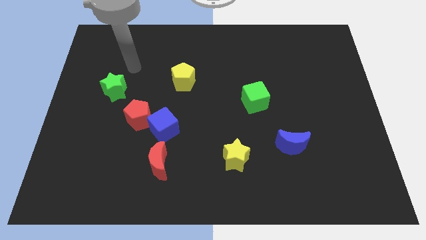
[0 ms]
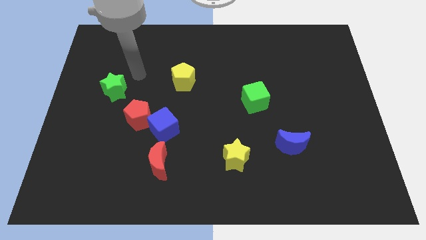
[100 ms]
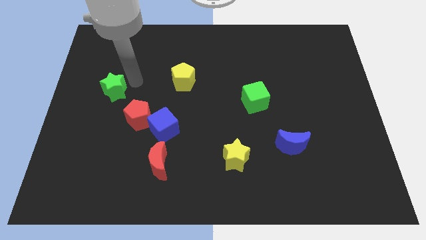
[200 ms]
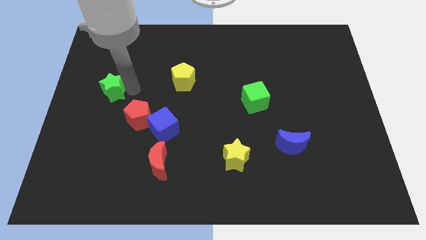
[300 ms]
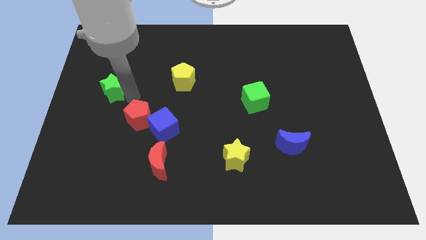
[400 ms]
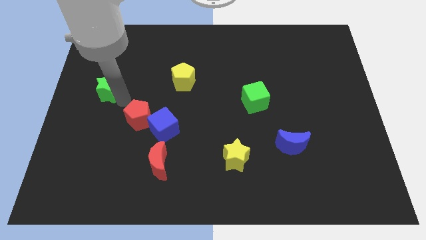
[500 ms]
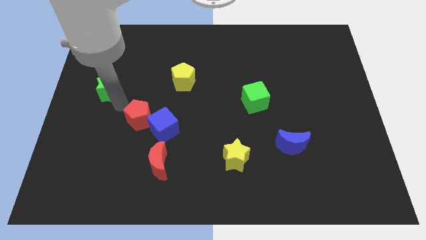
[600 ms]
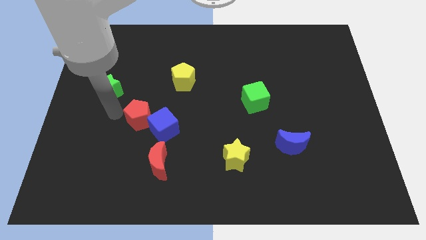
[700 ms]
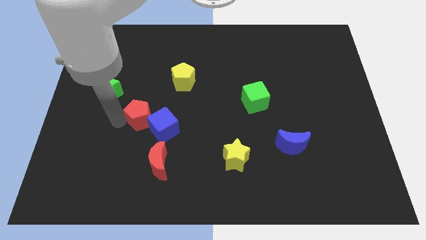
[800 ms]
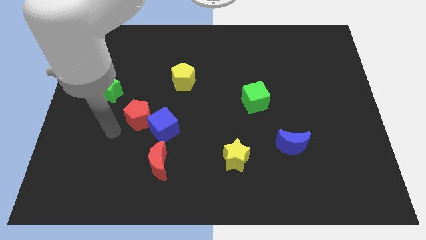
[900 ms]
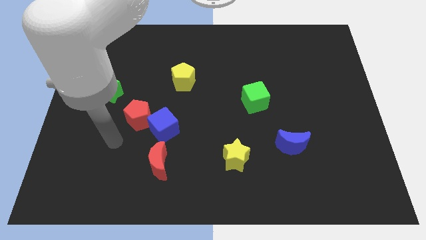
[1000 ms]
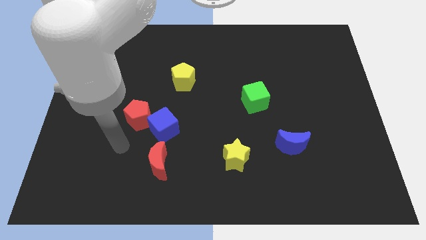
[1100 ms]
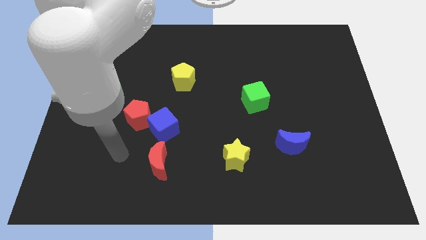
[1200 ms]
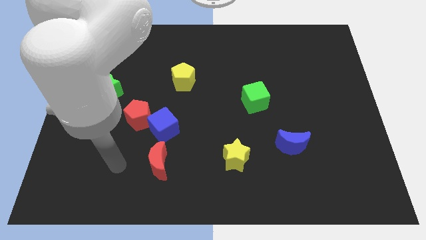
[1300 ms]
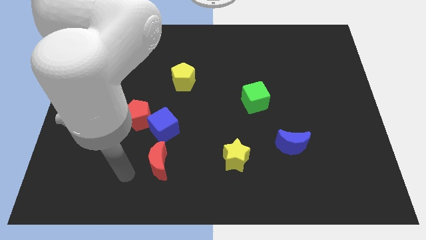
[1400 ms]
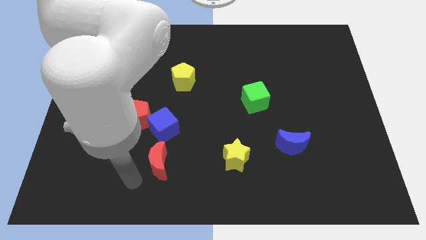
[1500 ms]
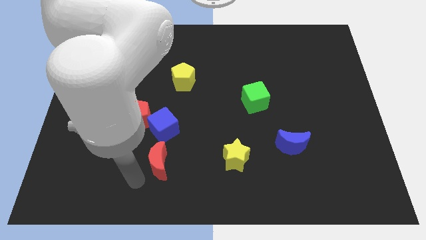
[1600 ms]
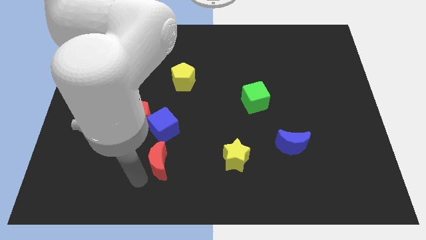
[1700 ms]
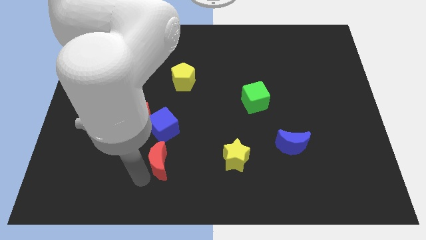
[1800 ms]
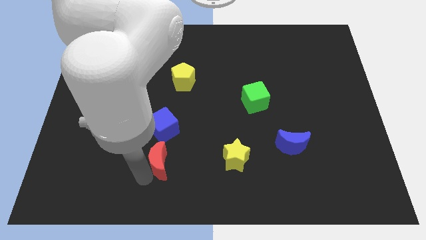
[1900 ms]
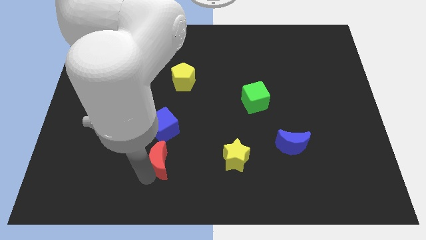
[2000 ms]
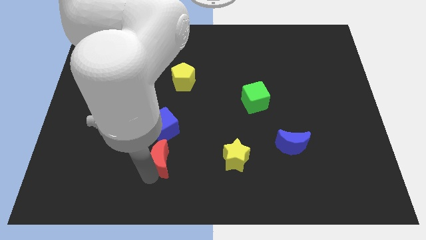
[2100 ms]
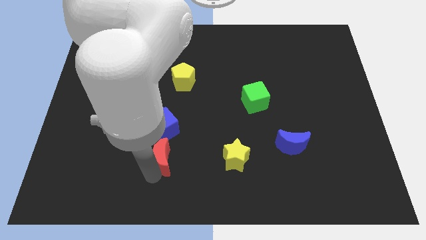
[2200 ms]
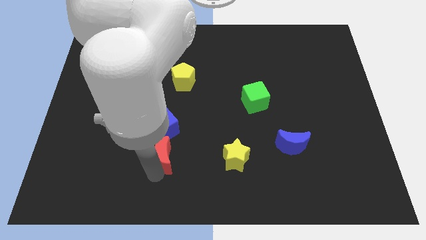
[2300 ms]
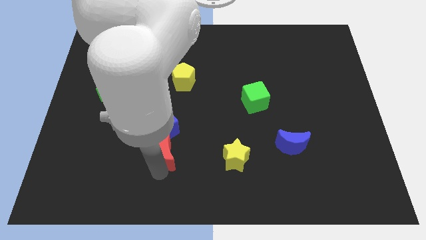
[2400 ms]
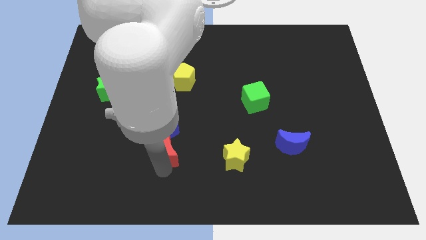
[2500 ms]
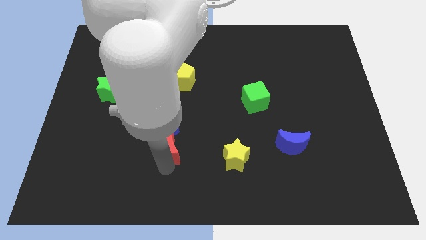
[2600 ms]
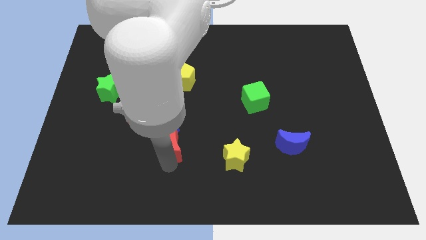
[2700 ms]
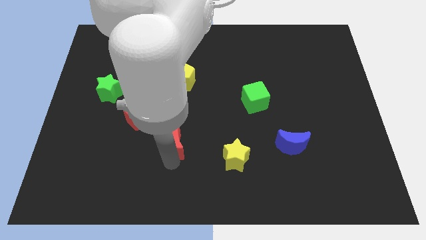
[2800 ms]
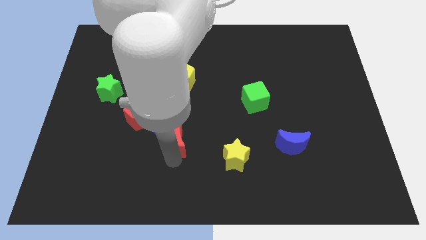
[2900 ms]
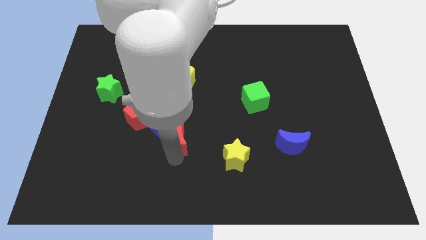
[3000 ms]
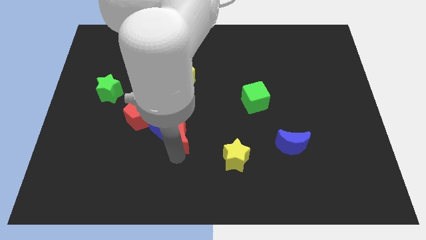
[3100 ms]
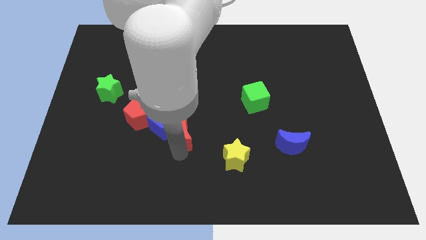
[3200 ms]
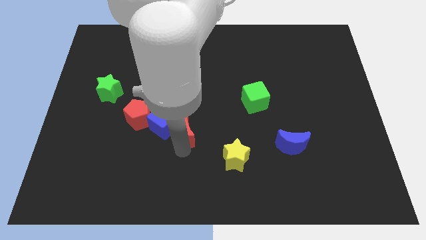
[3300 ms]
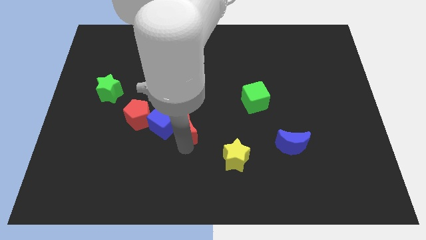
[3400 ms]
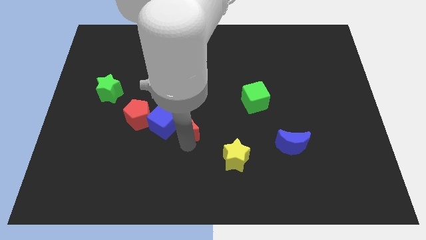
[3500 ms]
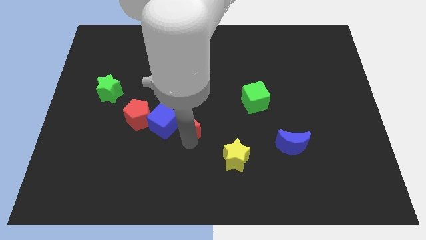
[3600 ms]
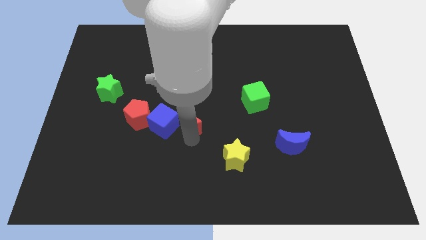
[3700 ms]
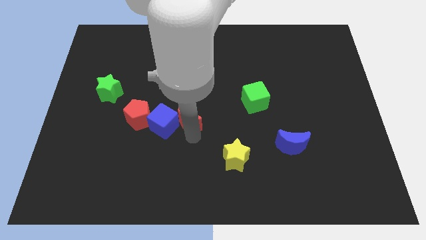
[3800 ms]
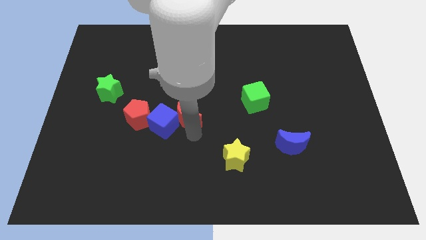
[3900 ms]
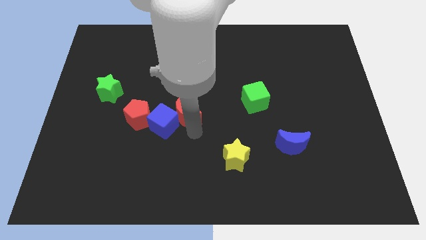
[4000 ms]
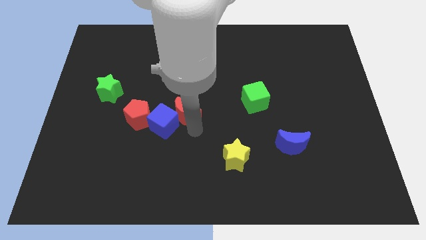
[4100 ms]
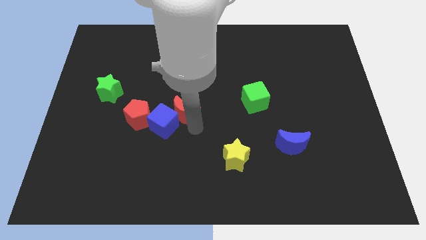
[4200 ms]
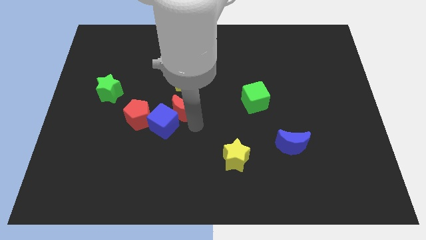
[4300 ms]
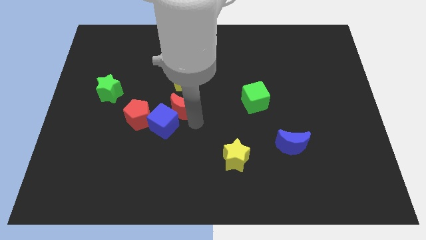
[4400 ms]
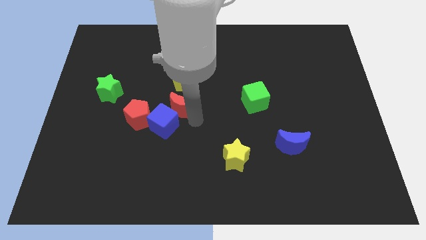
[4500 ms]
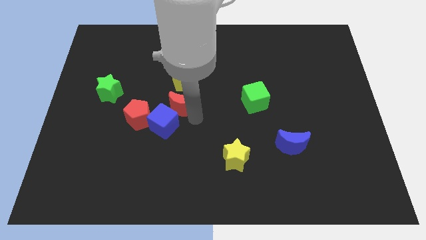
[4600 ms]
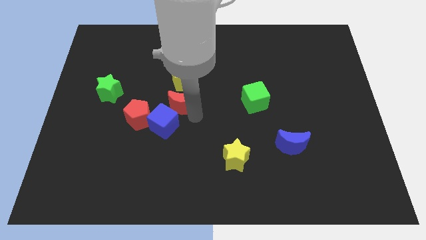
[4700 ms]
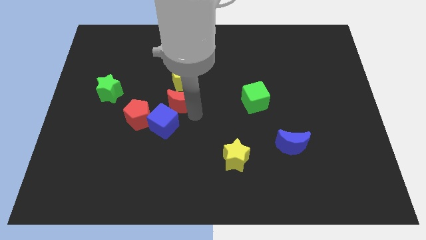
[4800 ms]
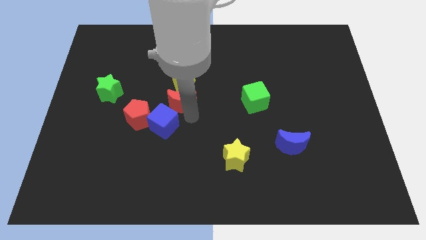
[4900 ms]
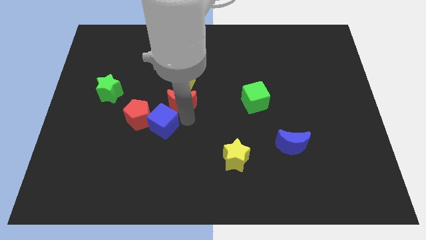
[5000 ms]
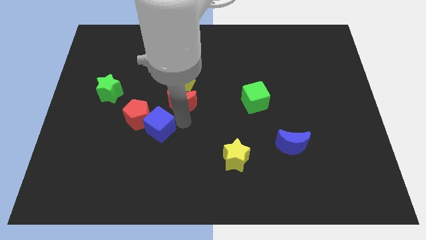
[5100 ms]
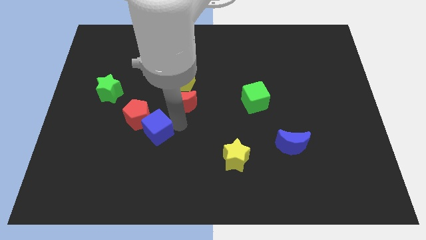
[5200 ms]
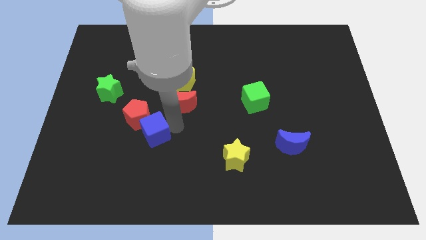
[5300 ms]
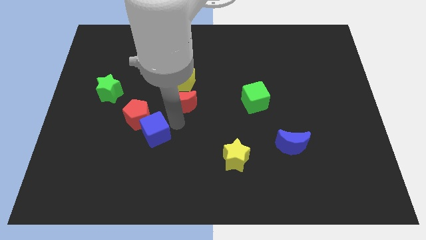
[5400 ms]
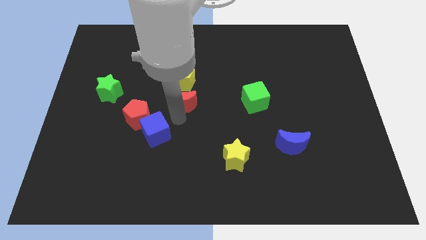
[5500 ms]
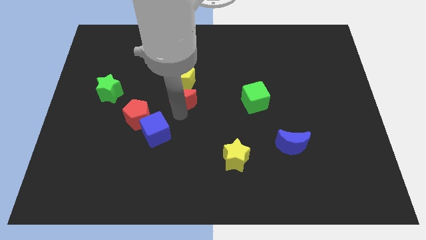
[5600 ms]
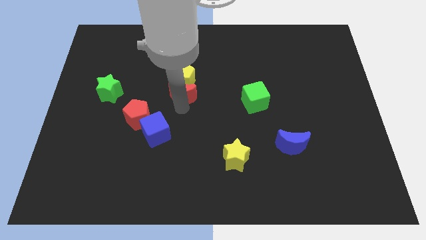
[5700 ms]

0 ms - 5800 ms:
slide the red moon towards the yellow pentagon

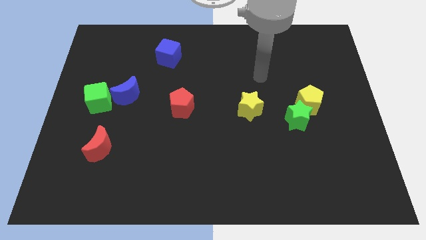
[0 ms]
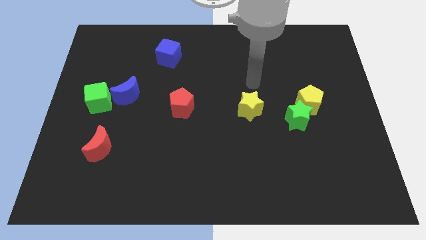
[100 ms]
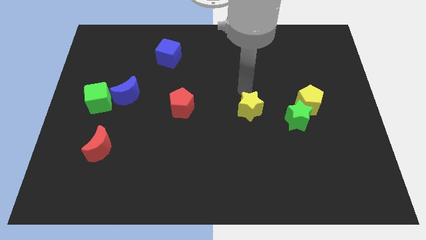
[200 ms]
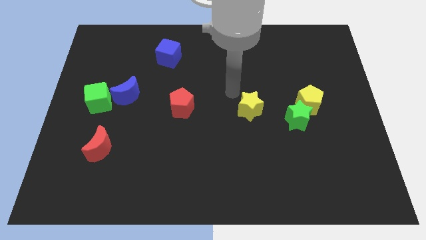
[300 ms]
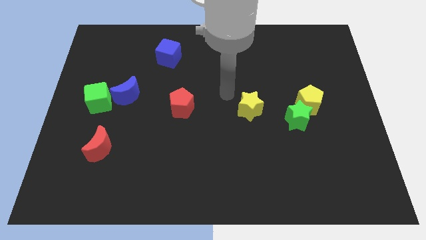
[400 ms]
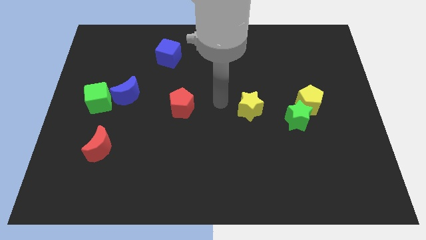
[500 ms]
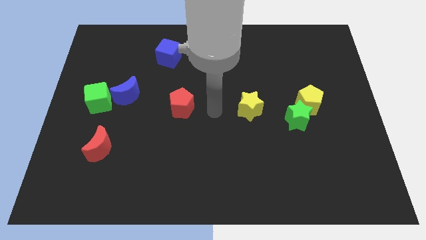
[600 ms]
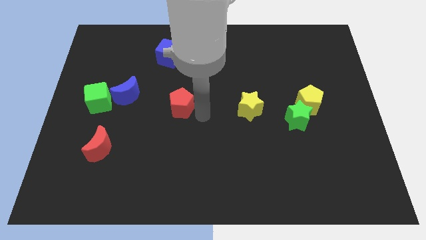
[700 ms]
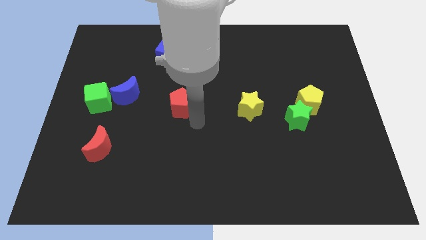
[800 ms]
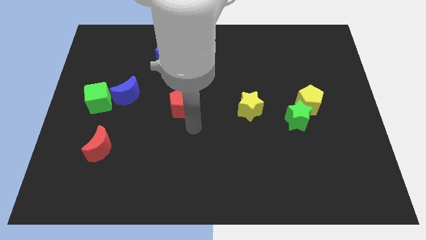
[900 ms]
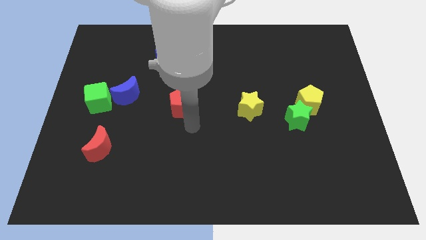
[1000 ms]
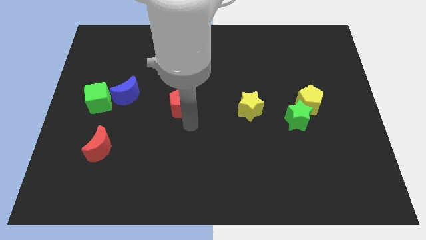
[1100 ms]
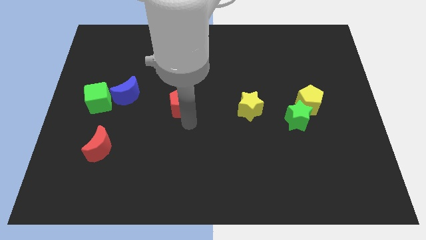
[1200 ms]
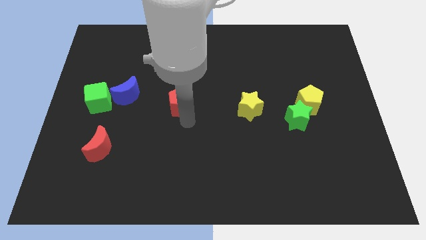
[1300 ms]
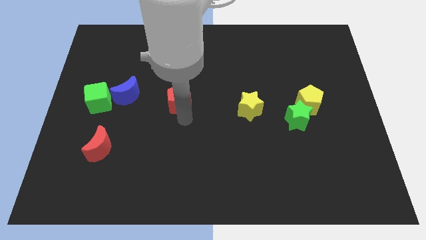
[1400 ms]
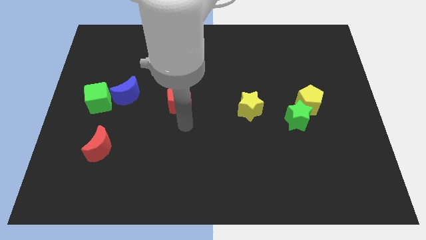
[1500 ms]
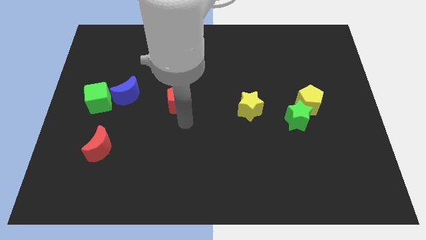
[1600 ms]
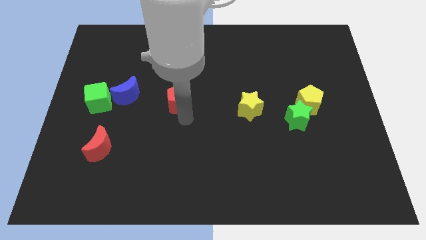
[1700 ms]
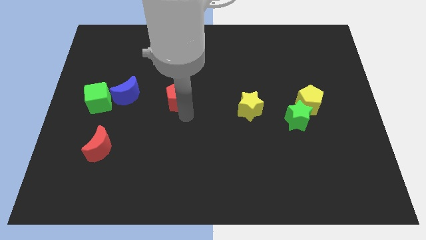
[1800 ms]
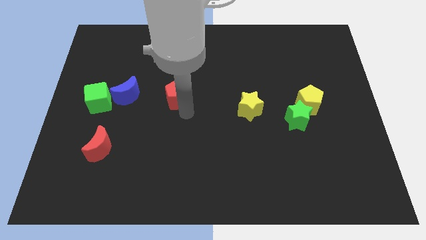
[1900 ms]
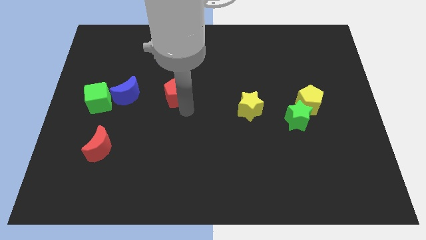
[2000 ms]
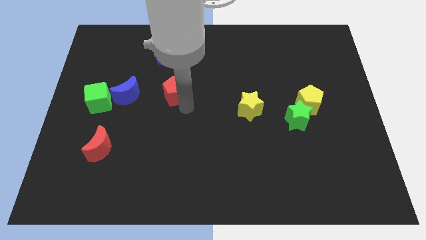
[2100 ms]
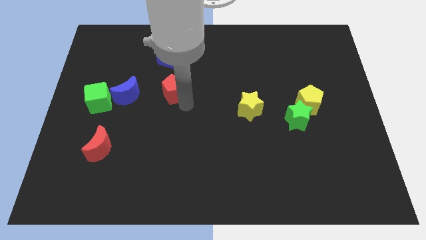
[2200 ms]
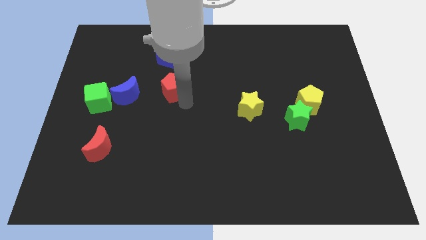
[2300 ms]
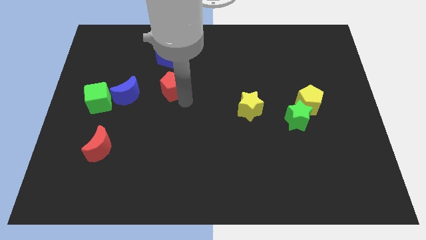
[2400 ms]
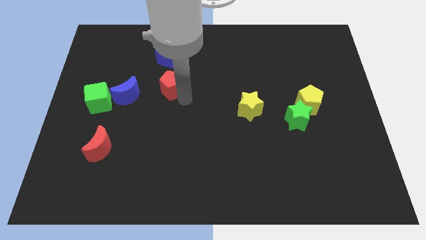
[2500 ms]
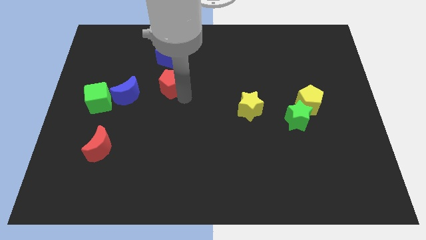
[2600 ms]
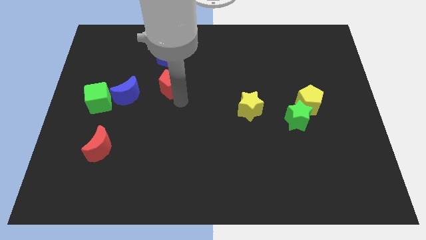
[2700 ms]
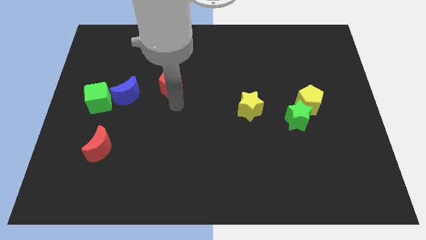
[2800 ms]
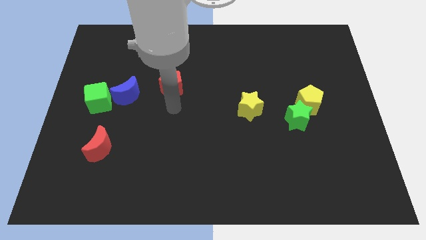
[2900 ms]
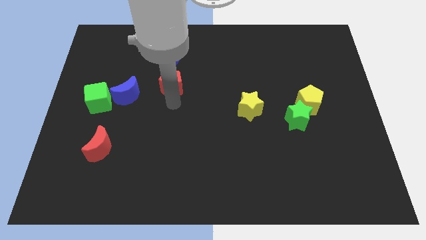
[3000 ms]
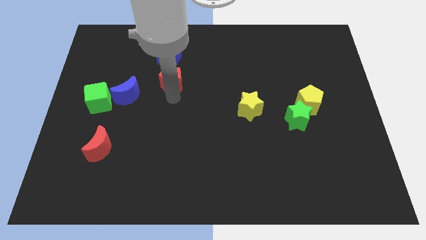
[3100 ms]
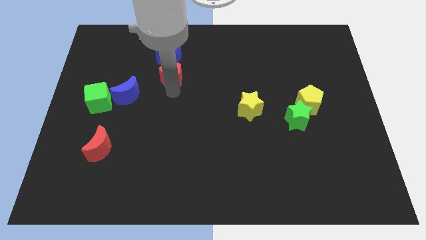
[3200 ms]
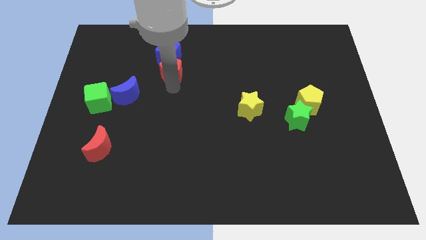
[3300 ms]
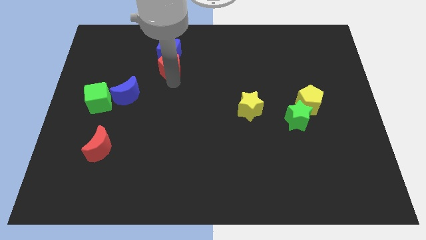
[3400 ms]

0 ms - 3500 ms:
put the red pentagon next to the blue cube
